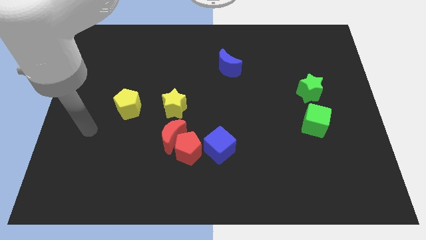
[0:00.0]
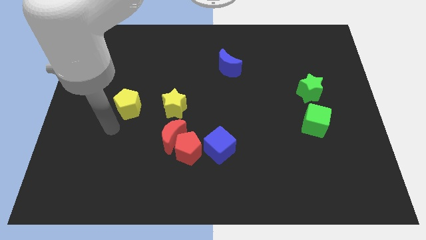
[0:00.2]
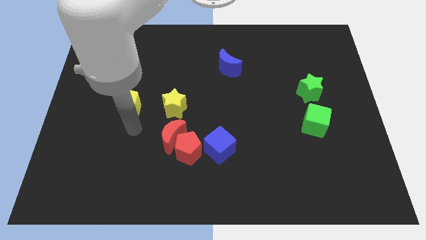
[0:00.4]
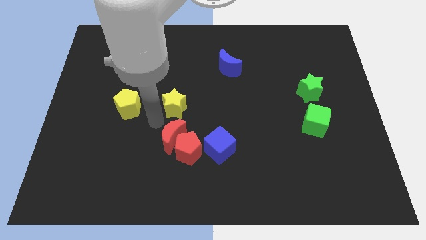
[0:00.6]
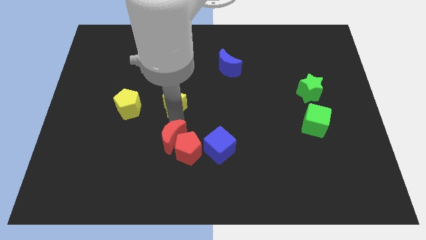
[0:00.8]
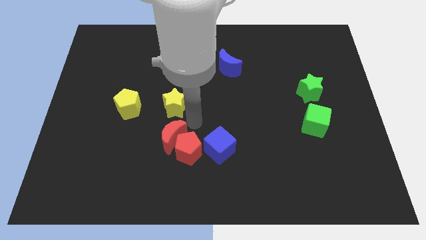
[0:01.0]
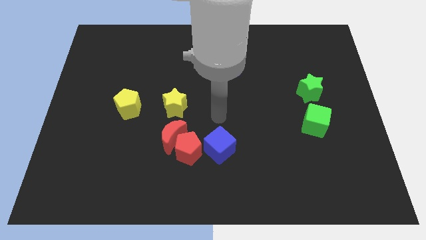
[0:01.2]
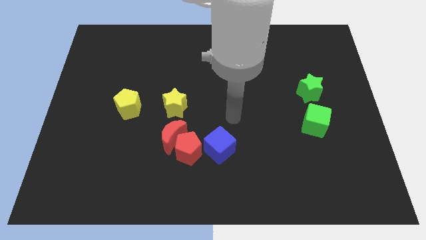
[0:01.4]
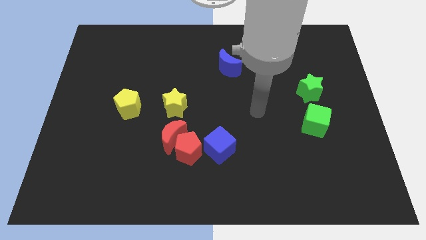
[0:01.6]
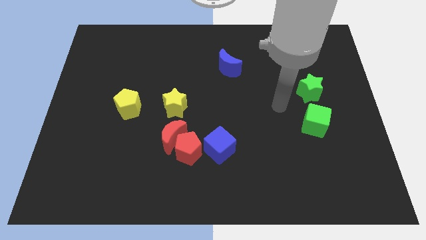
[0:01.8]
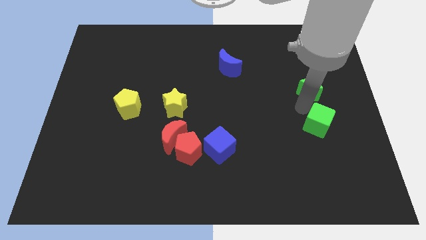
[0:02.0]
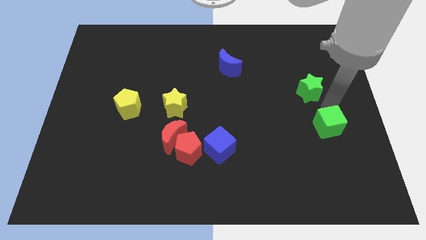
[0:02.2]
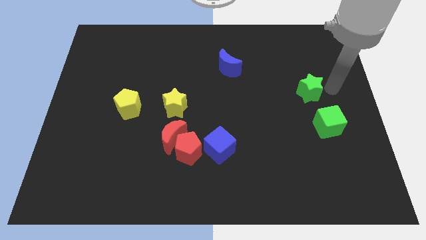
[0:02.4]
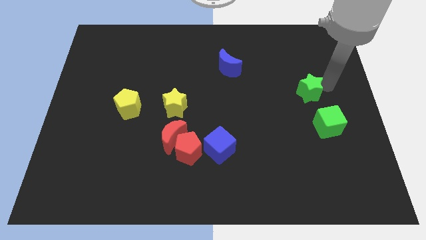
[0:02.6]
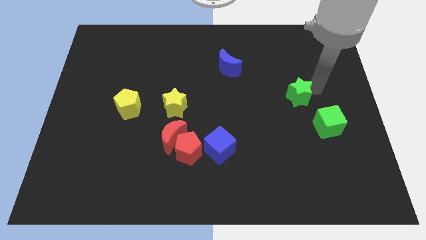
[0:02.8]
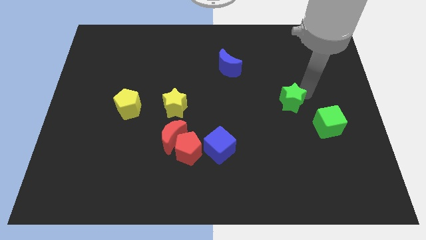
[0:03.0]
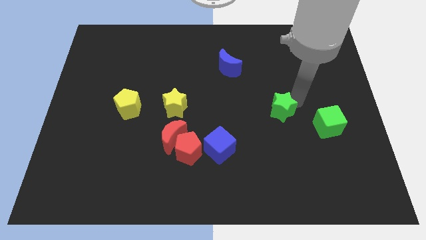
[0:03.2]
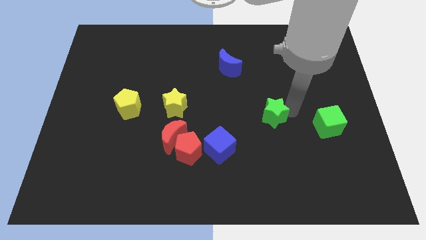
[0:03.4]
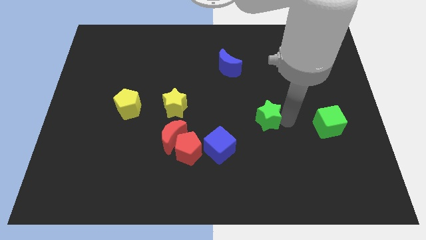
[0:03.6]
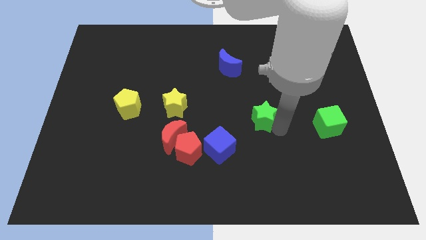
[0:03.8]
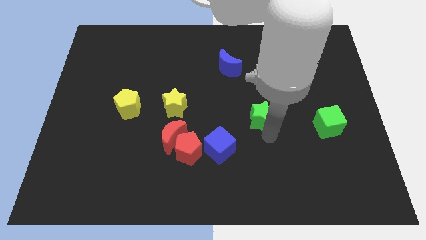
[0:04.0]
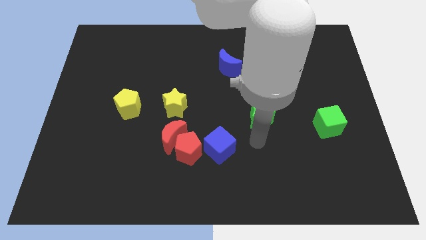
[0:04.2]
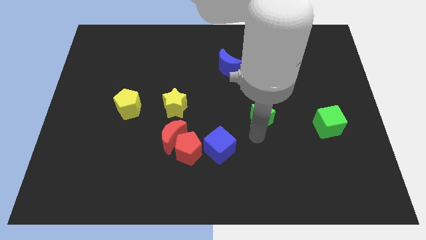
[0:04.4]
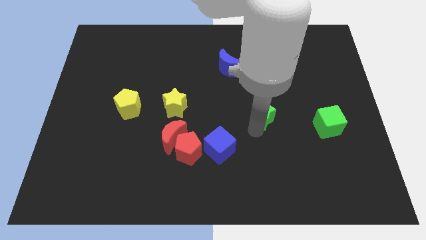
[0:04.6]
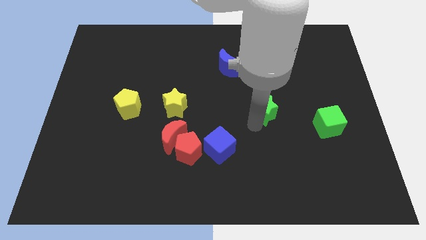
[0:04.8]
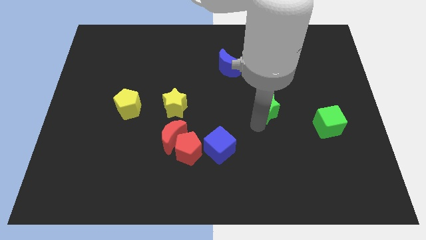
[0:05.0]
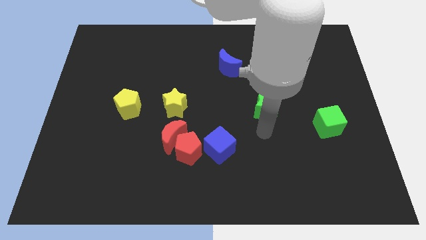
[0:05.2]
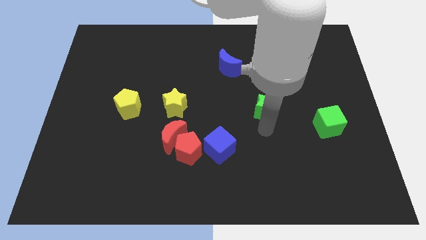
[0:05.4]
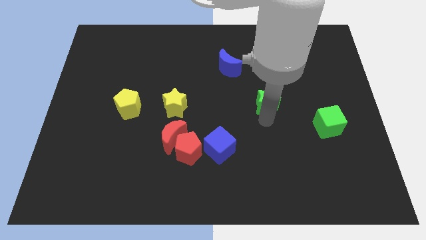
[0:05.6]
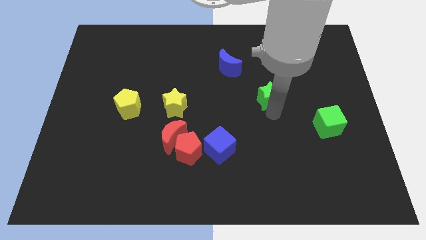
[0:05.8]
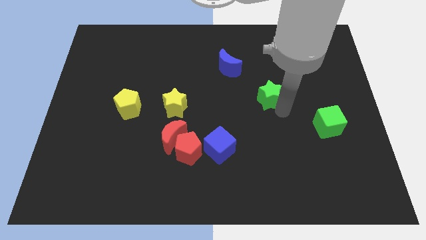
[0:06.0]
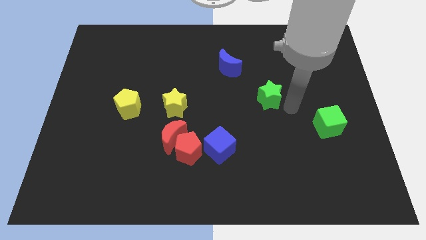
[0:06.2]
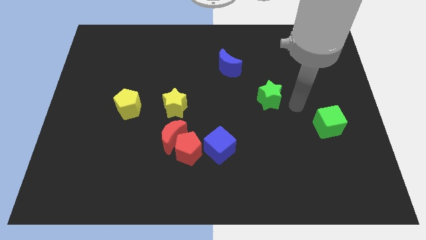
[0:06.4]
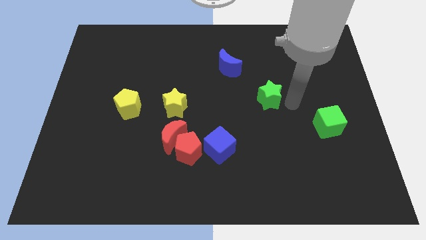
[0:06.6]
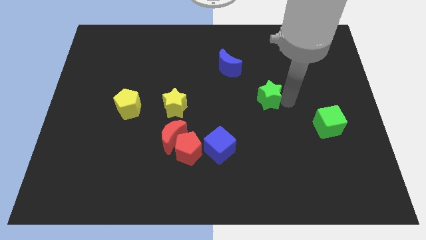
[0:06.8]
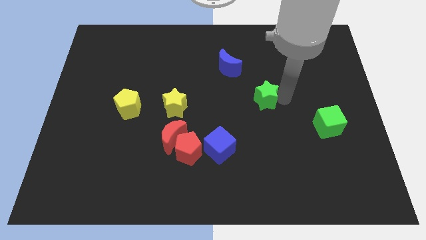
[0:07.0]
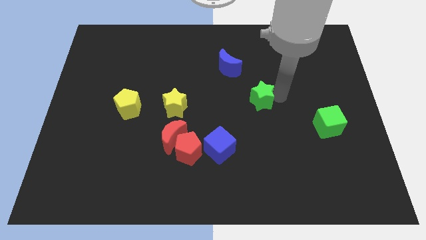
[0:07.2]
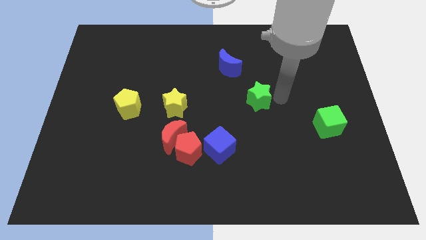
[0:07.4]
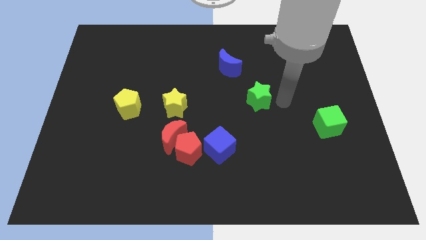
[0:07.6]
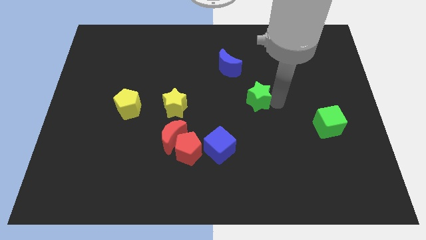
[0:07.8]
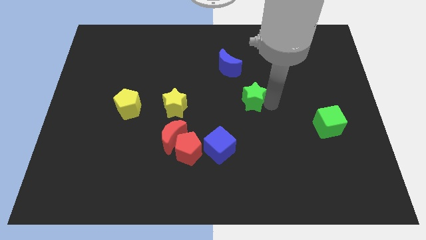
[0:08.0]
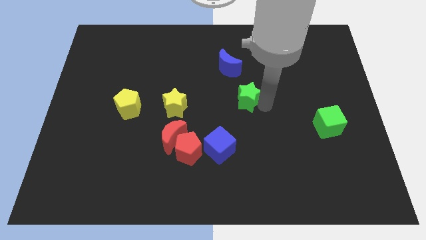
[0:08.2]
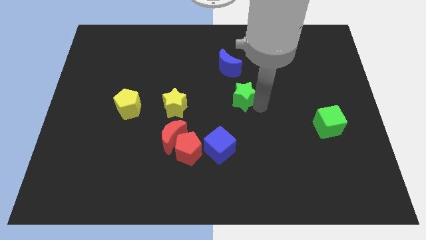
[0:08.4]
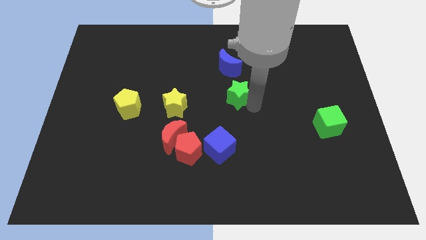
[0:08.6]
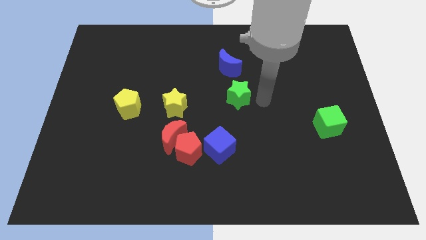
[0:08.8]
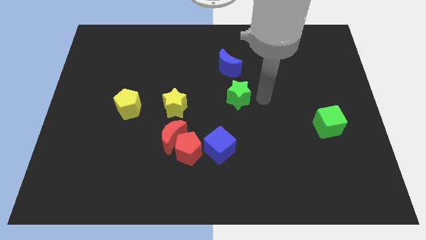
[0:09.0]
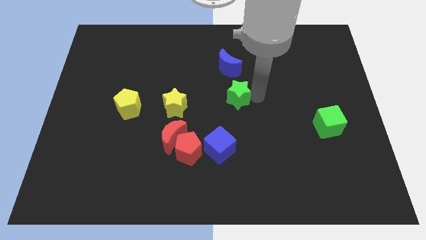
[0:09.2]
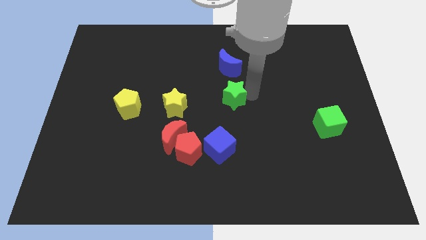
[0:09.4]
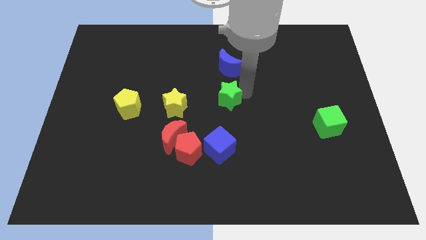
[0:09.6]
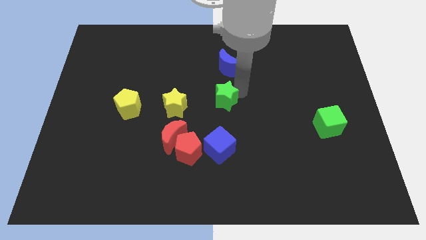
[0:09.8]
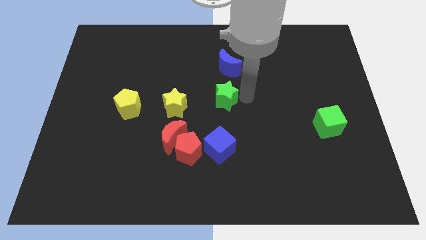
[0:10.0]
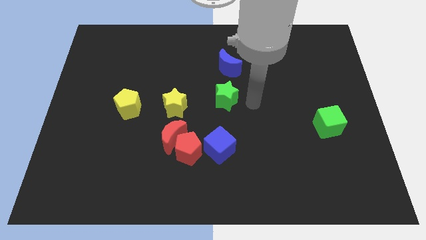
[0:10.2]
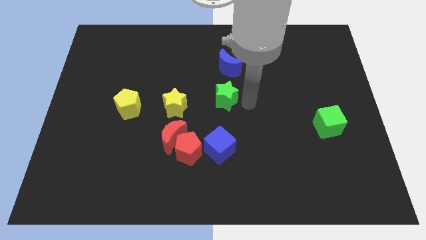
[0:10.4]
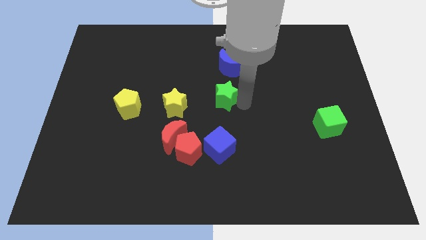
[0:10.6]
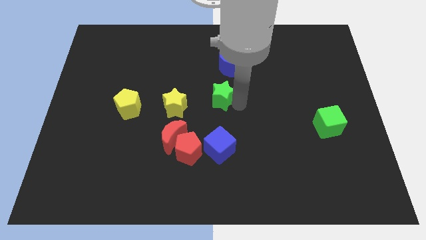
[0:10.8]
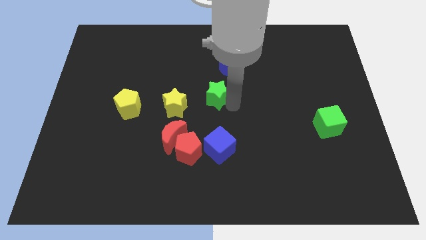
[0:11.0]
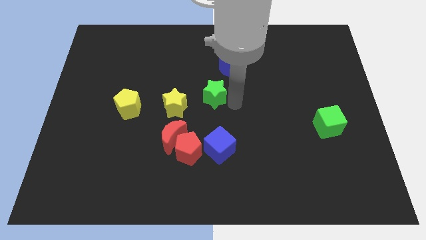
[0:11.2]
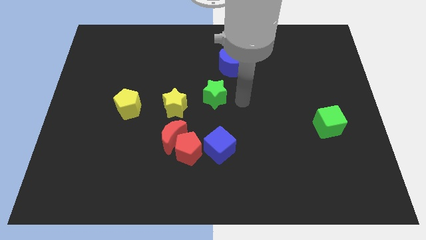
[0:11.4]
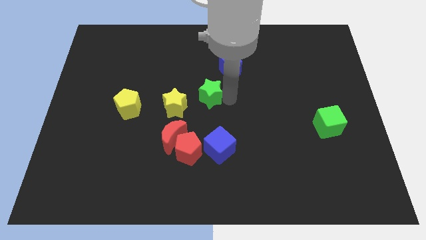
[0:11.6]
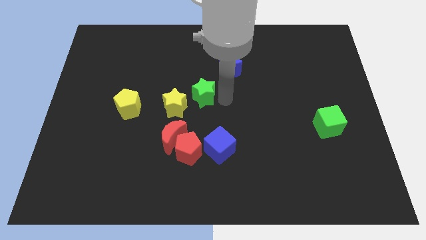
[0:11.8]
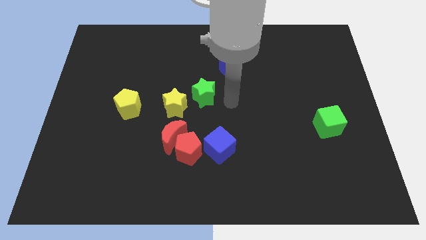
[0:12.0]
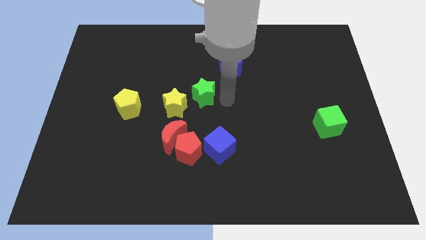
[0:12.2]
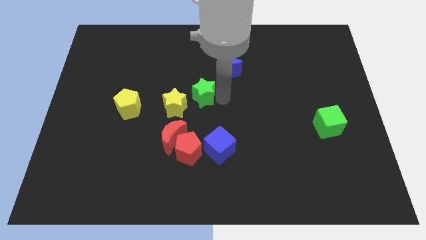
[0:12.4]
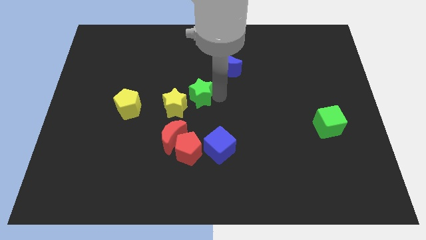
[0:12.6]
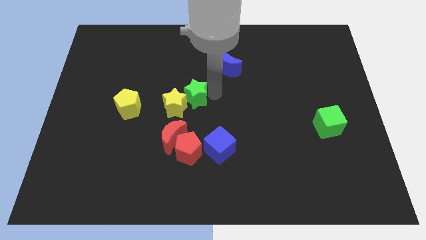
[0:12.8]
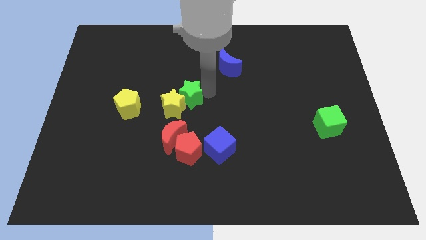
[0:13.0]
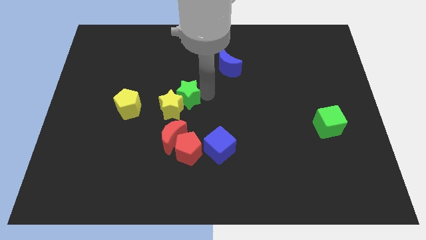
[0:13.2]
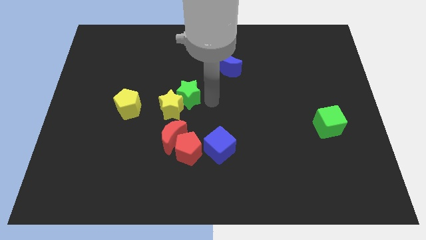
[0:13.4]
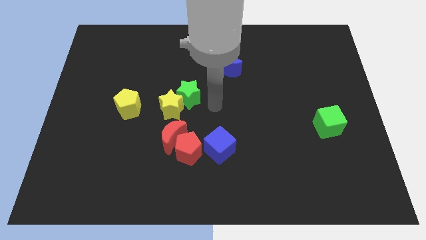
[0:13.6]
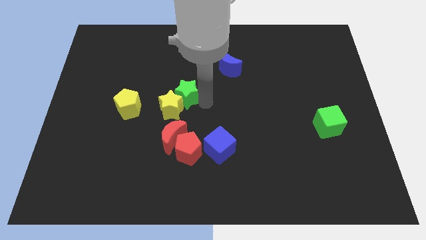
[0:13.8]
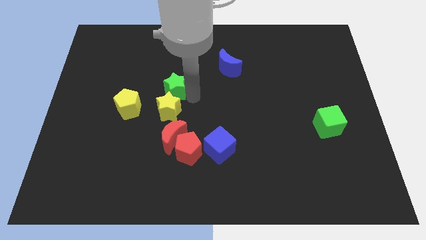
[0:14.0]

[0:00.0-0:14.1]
put the green star to the top left side of the yellow star
